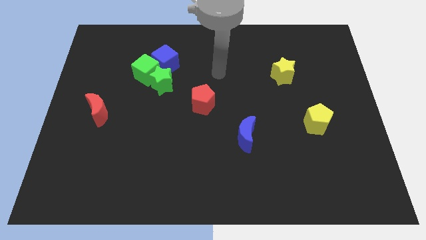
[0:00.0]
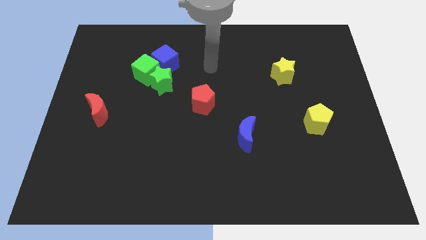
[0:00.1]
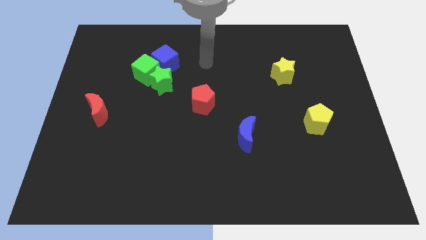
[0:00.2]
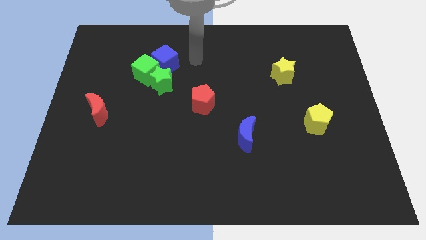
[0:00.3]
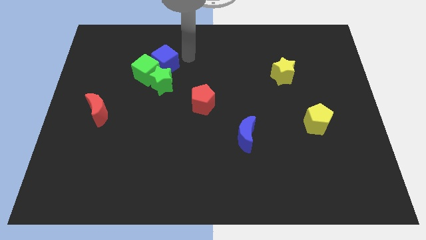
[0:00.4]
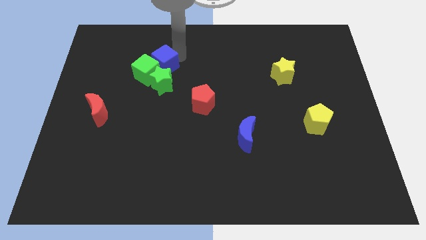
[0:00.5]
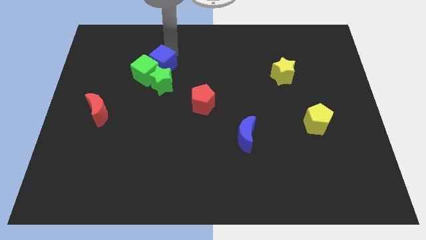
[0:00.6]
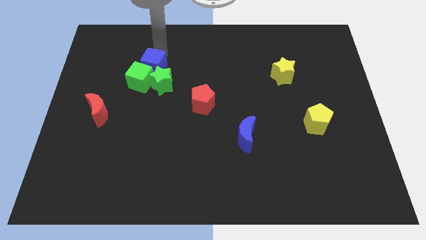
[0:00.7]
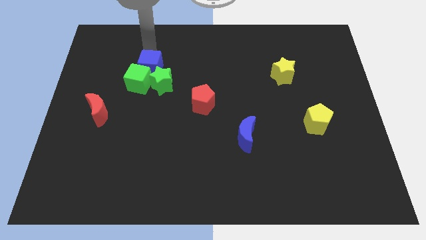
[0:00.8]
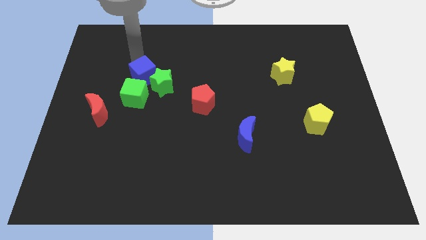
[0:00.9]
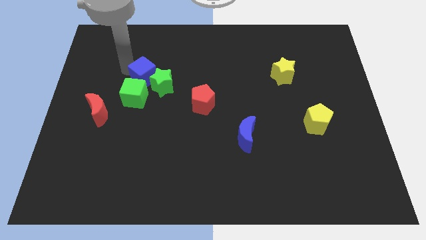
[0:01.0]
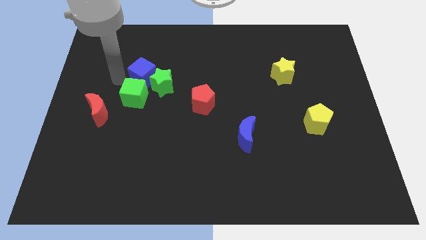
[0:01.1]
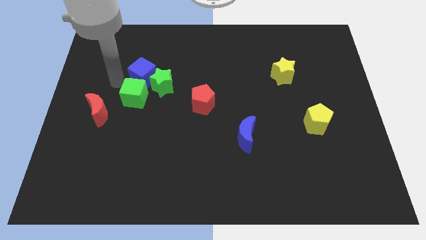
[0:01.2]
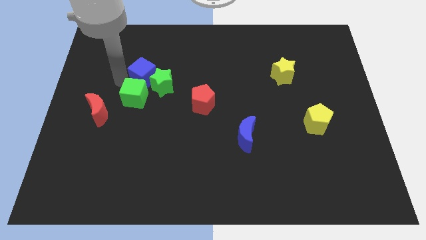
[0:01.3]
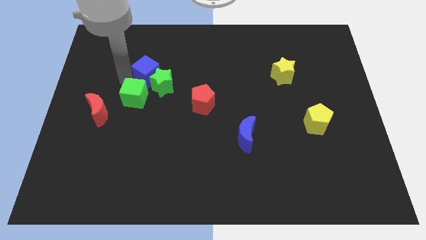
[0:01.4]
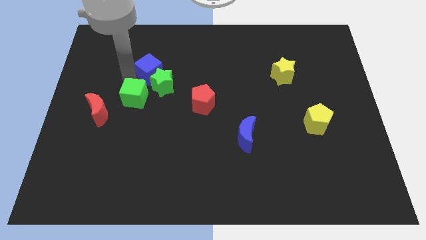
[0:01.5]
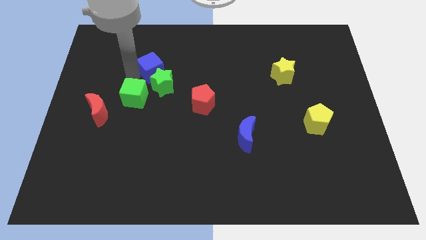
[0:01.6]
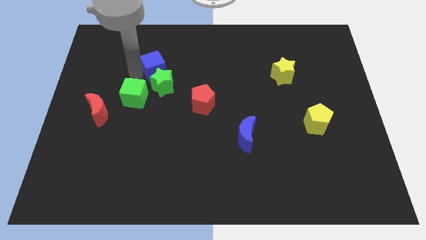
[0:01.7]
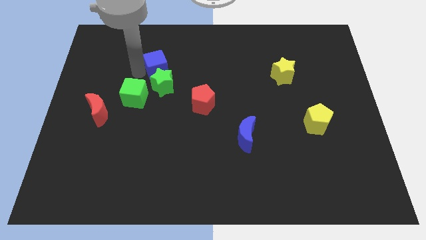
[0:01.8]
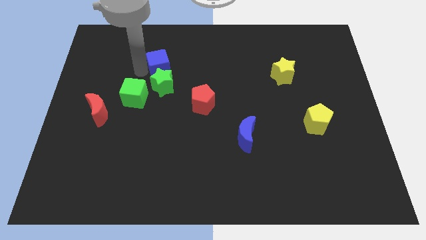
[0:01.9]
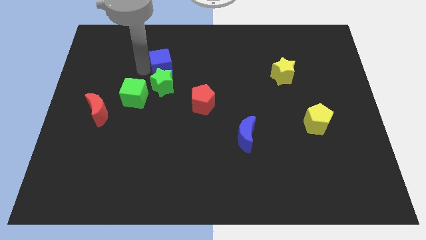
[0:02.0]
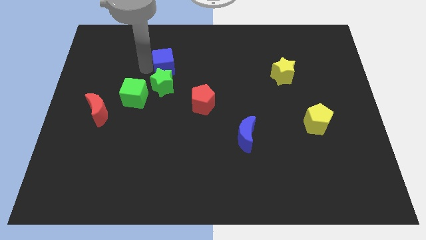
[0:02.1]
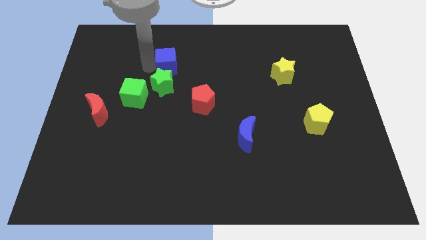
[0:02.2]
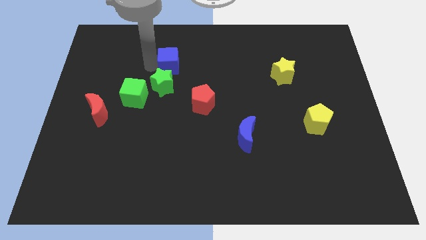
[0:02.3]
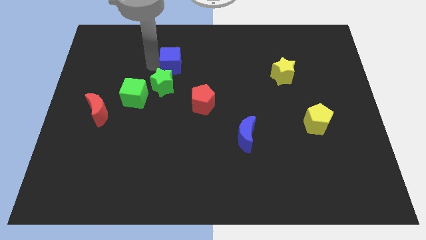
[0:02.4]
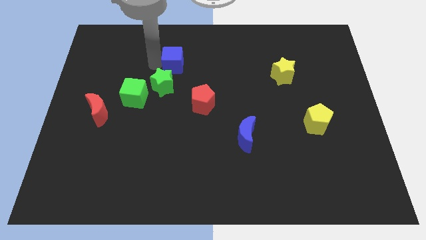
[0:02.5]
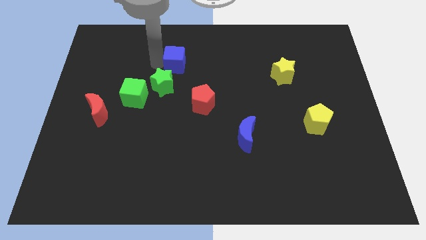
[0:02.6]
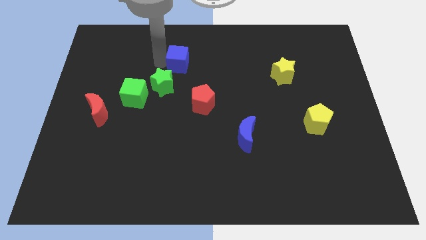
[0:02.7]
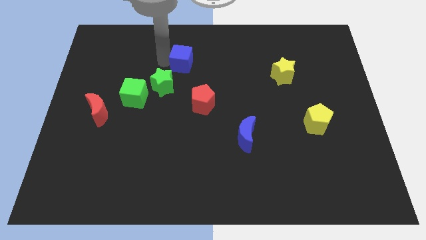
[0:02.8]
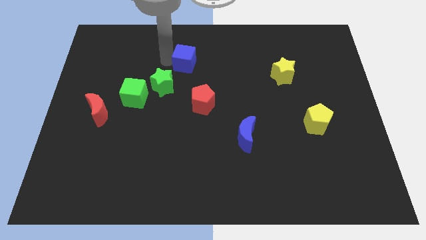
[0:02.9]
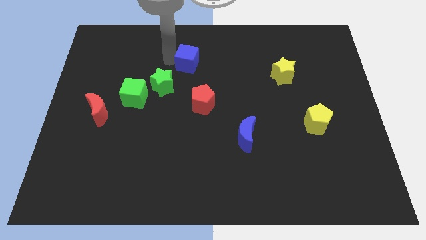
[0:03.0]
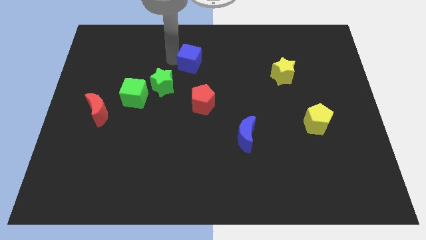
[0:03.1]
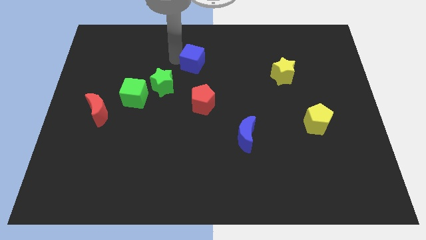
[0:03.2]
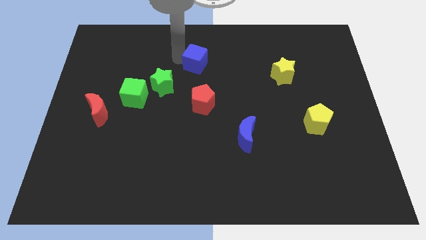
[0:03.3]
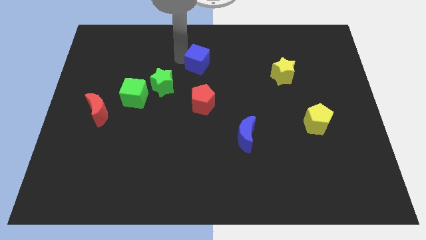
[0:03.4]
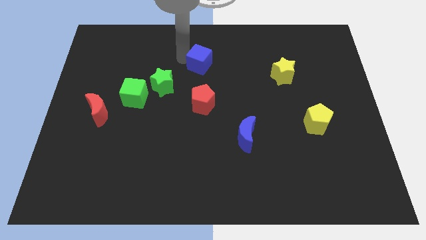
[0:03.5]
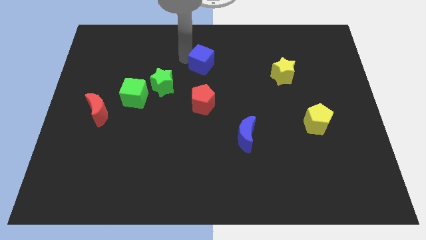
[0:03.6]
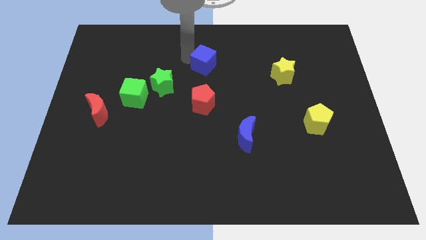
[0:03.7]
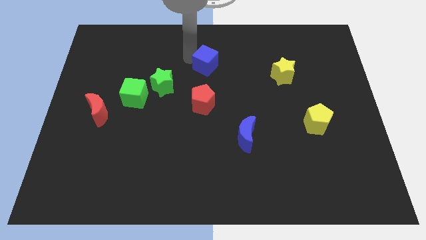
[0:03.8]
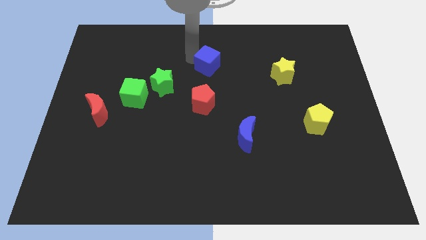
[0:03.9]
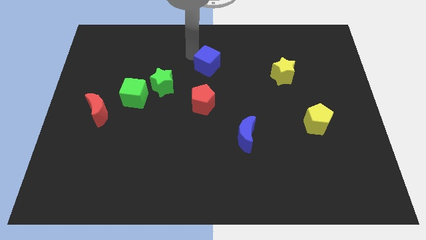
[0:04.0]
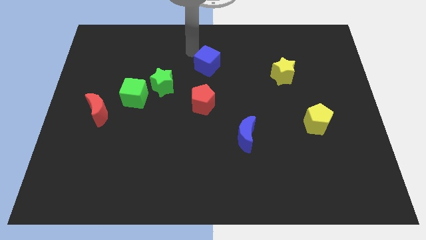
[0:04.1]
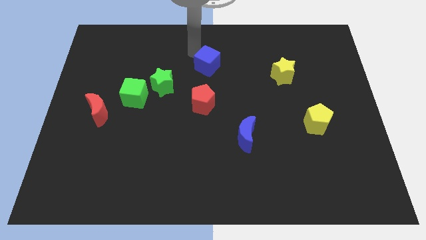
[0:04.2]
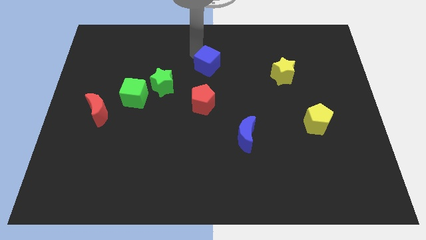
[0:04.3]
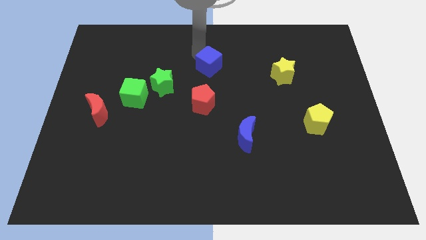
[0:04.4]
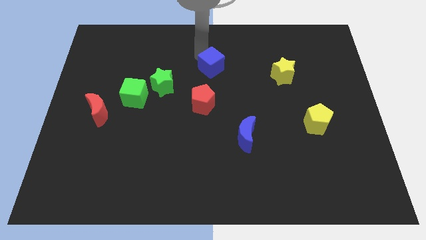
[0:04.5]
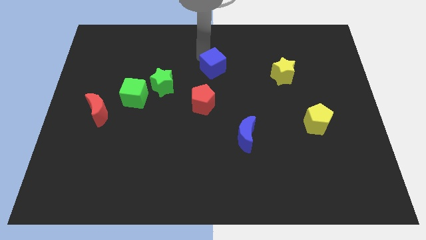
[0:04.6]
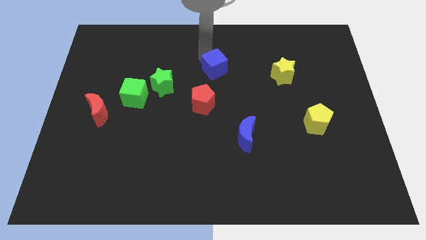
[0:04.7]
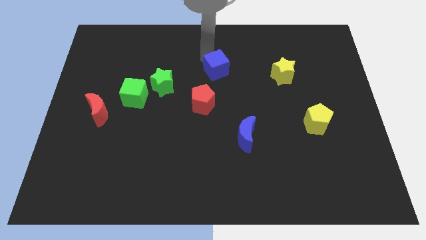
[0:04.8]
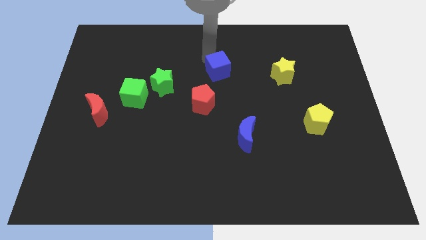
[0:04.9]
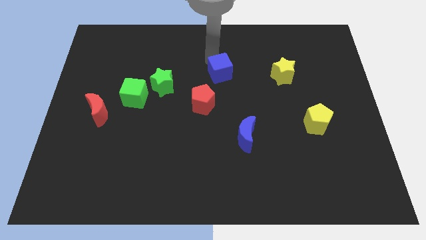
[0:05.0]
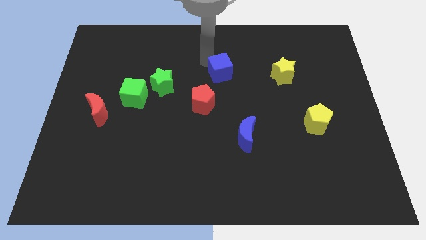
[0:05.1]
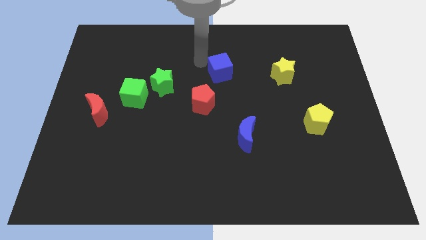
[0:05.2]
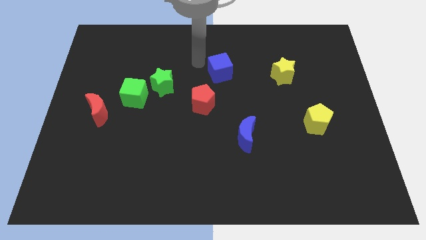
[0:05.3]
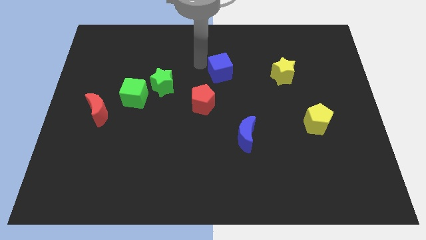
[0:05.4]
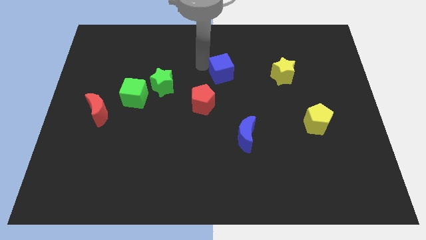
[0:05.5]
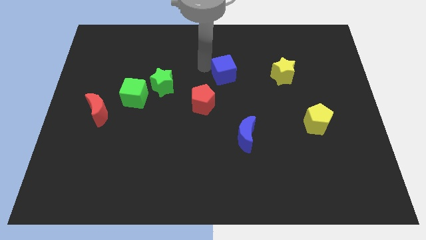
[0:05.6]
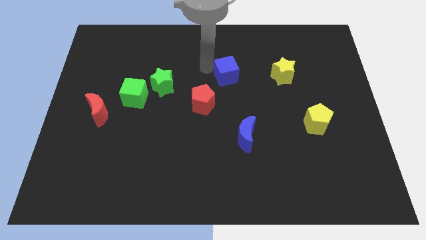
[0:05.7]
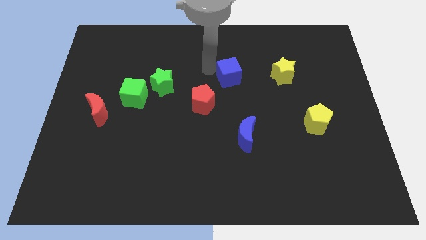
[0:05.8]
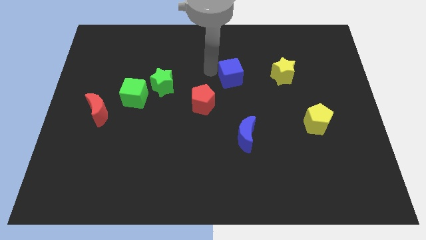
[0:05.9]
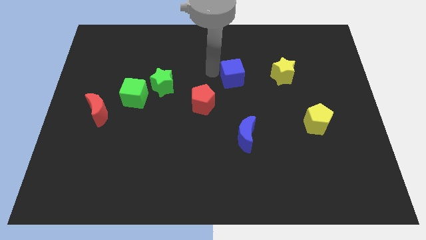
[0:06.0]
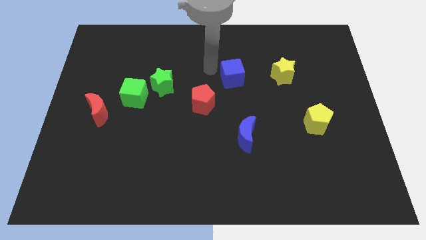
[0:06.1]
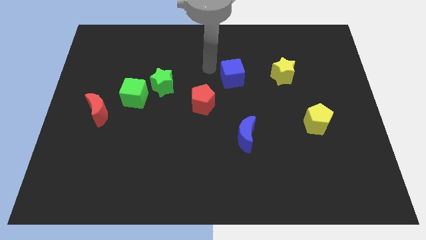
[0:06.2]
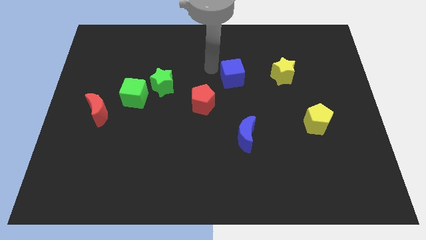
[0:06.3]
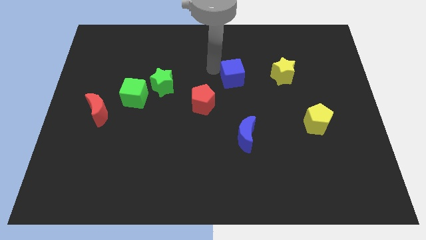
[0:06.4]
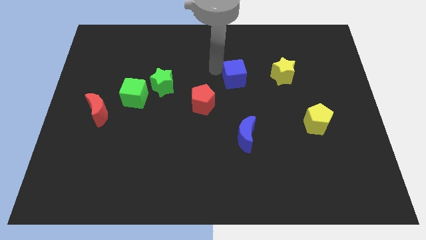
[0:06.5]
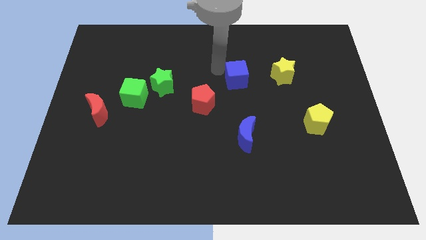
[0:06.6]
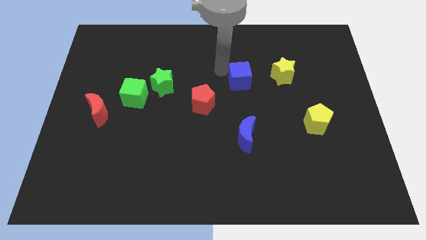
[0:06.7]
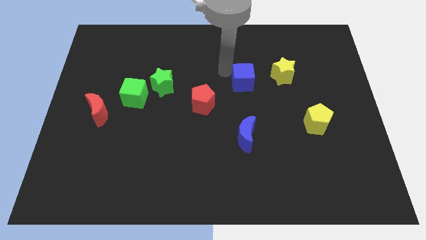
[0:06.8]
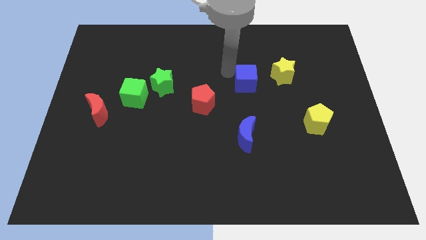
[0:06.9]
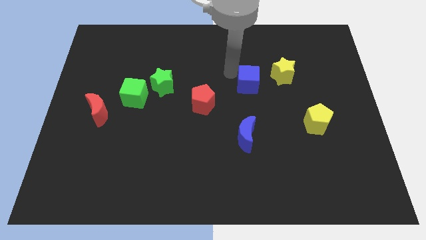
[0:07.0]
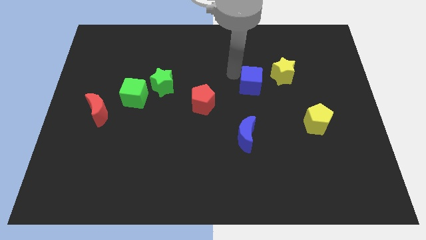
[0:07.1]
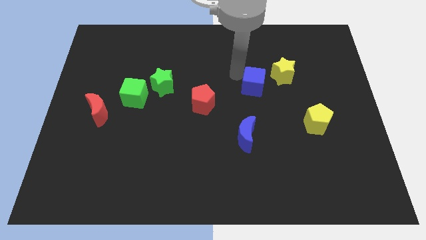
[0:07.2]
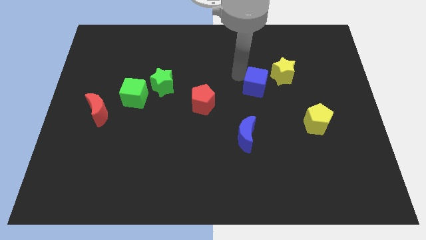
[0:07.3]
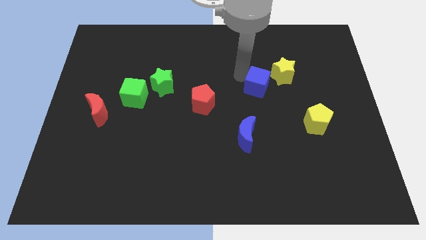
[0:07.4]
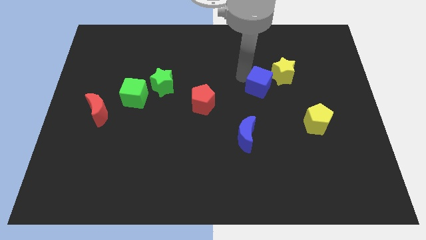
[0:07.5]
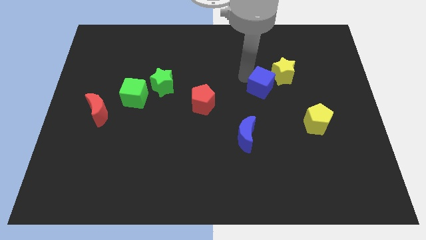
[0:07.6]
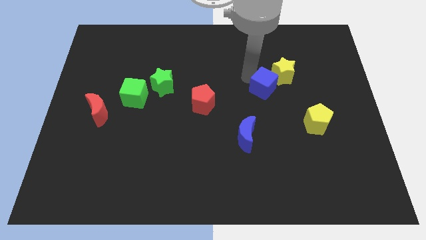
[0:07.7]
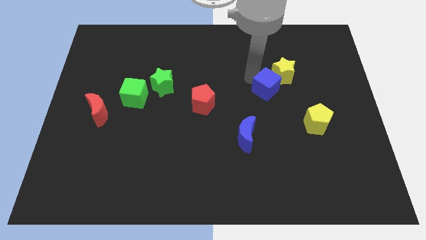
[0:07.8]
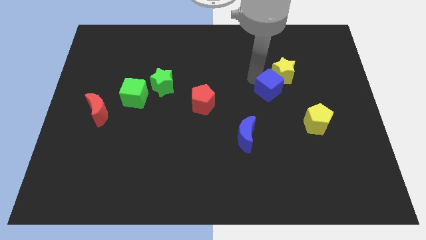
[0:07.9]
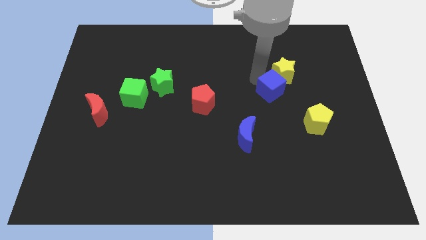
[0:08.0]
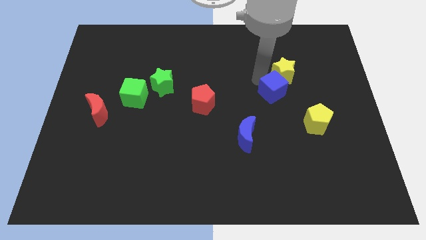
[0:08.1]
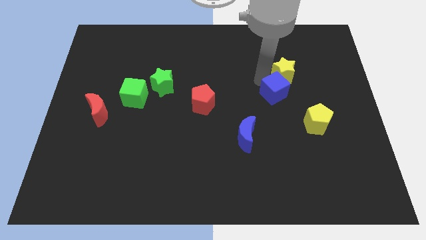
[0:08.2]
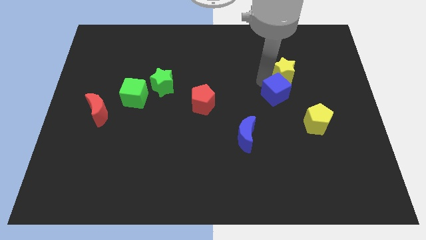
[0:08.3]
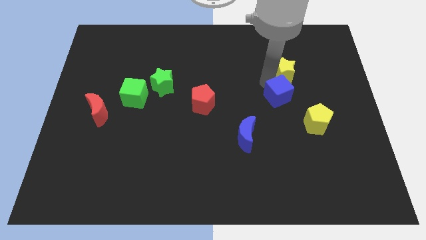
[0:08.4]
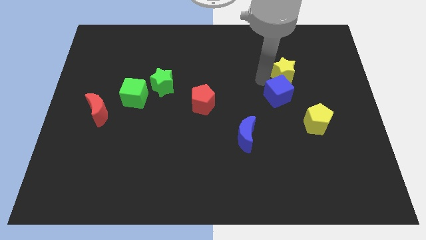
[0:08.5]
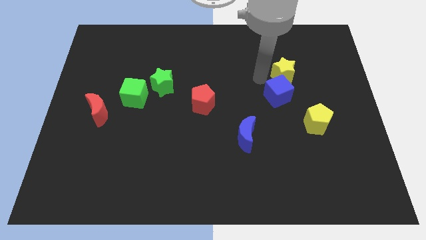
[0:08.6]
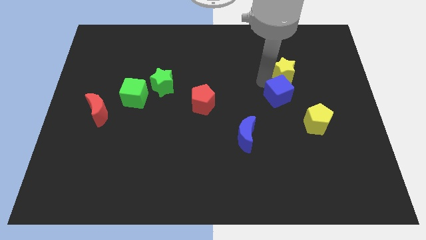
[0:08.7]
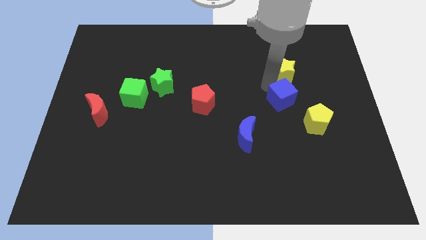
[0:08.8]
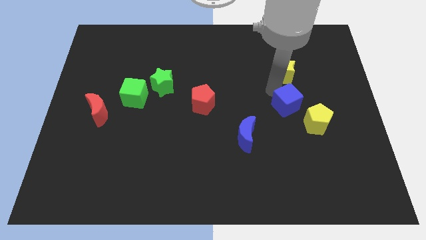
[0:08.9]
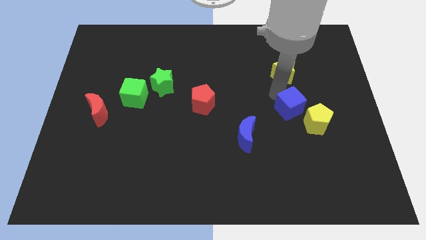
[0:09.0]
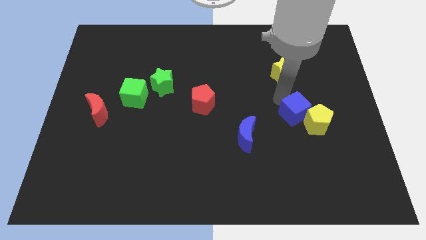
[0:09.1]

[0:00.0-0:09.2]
slide the blue cube towards the yellow pentagon
